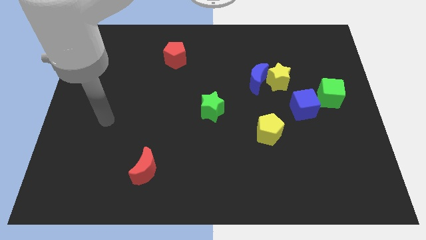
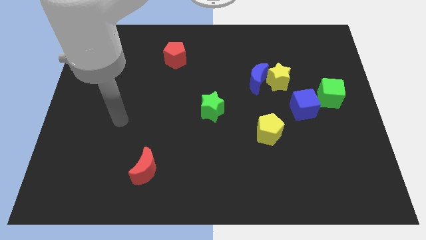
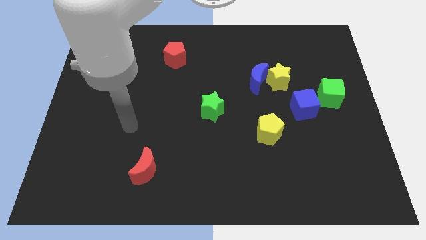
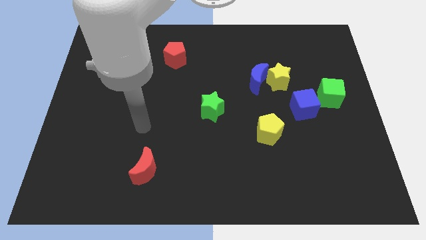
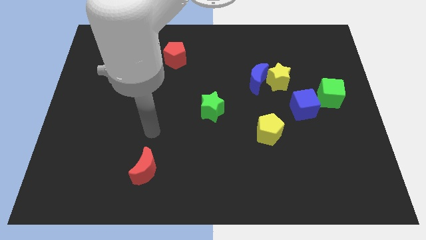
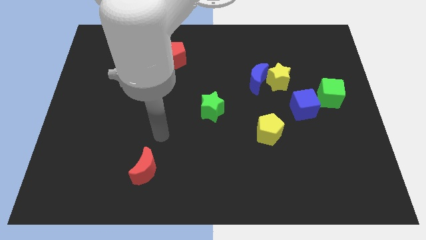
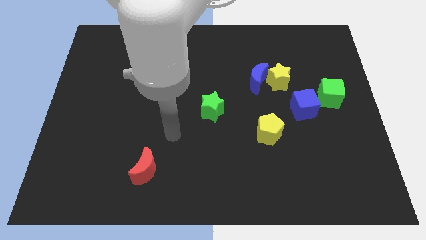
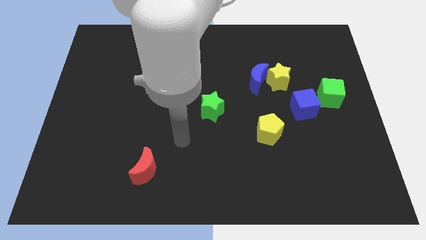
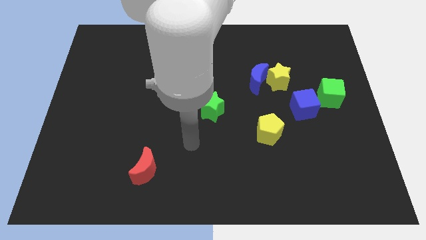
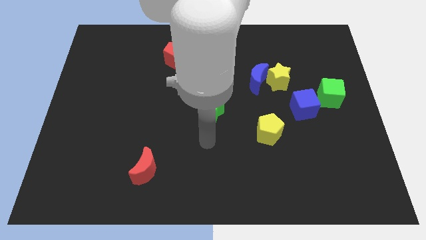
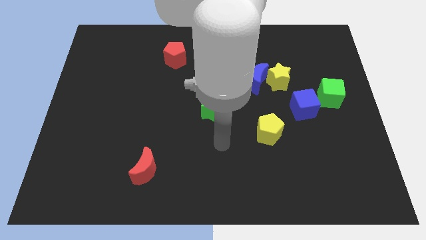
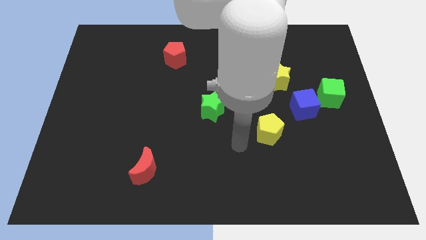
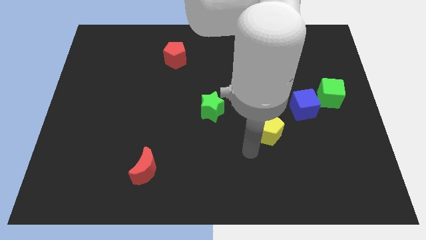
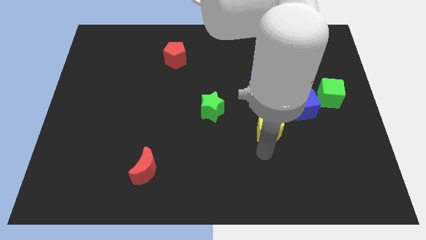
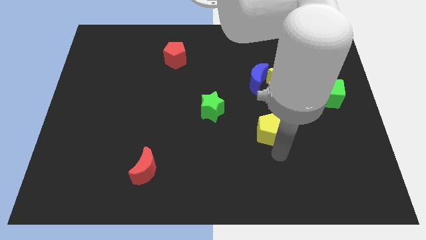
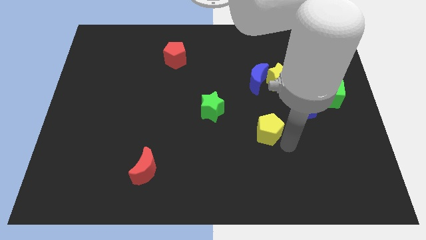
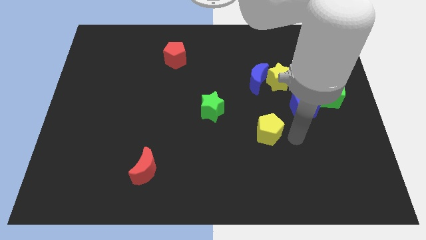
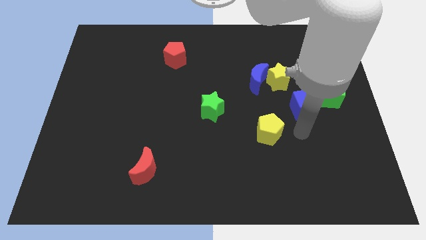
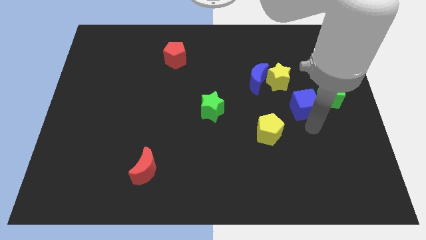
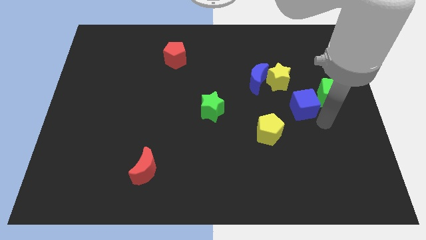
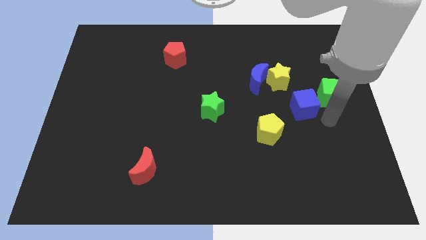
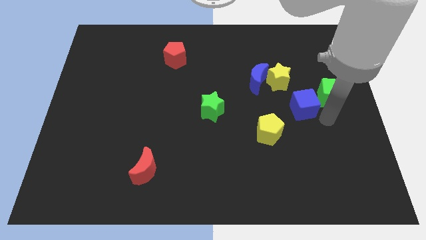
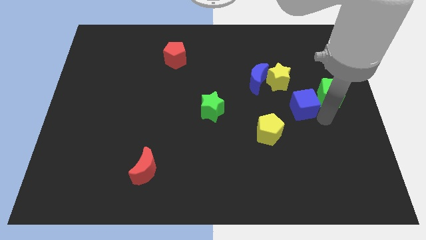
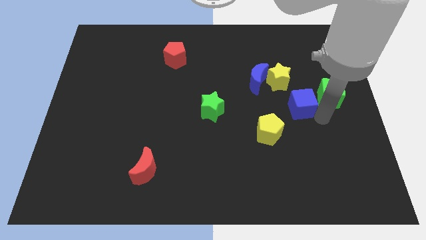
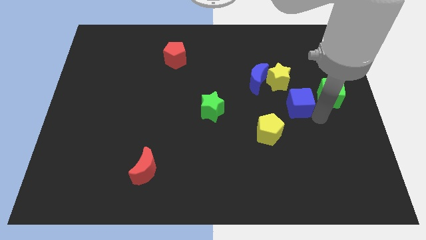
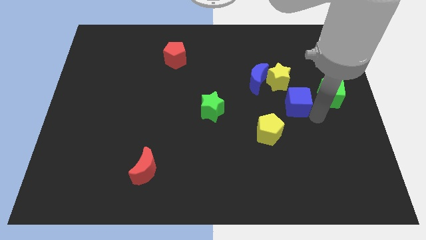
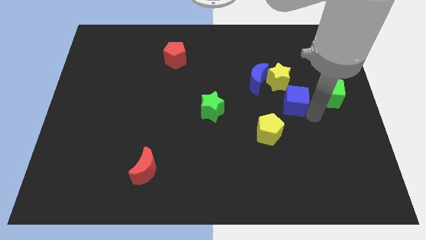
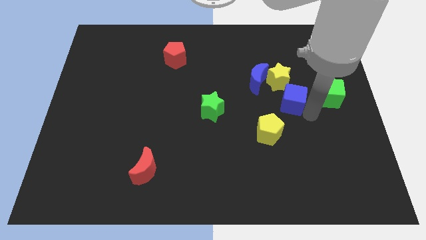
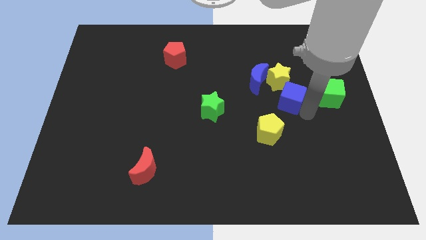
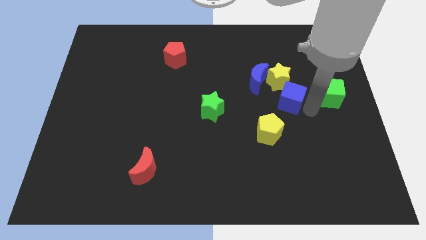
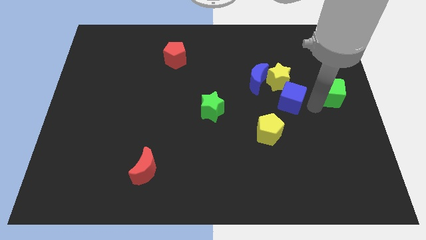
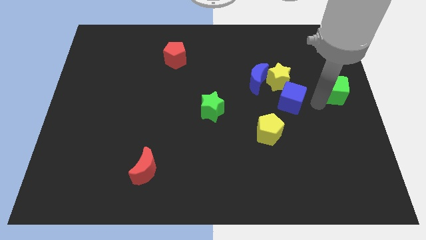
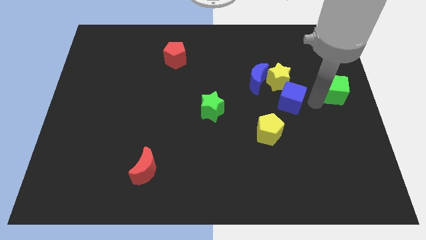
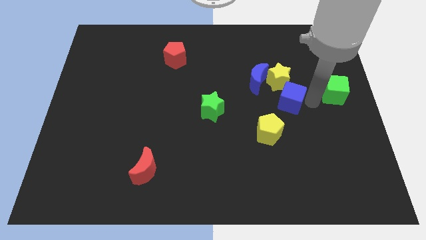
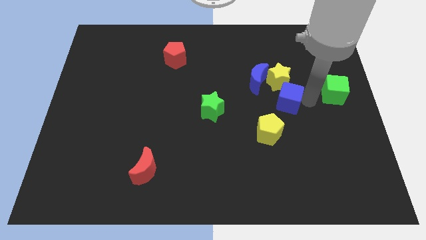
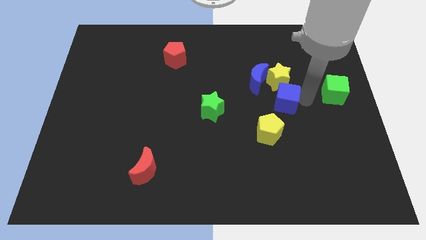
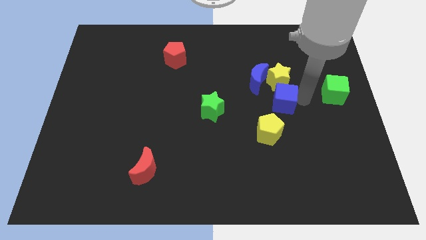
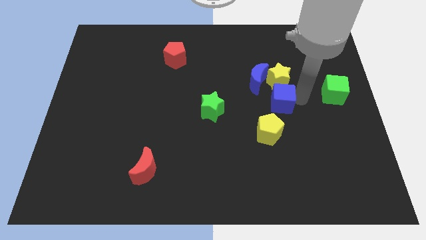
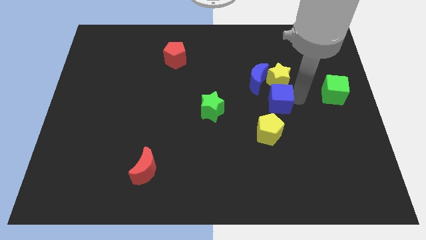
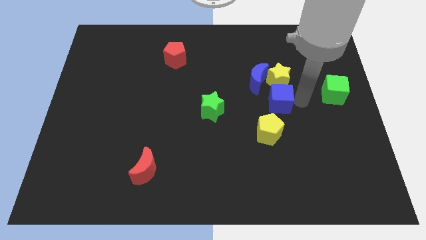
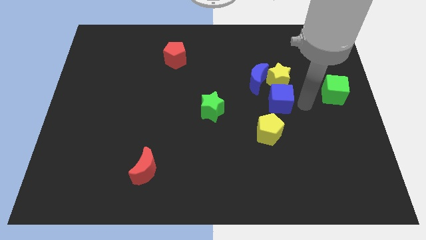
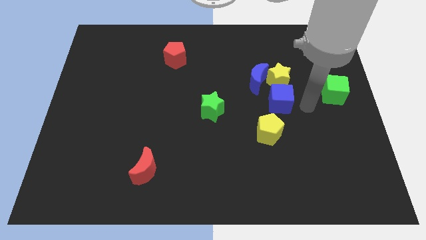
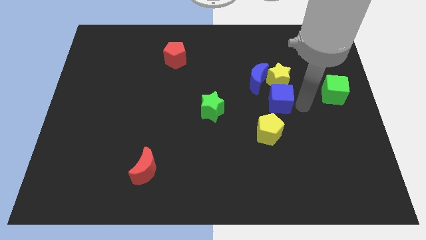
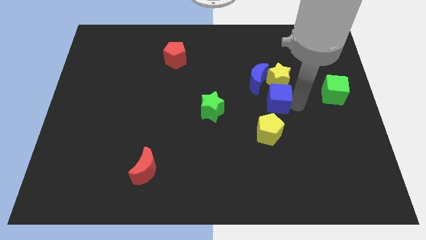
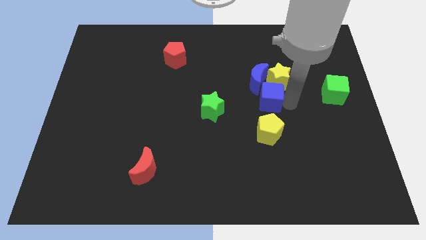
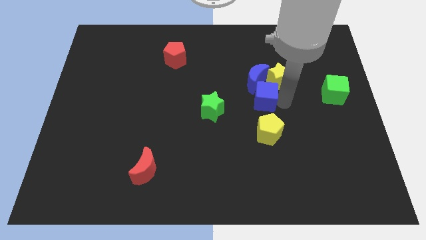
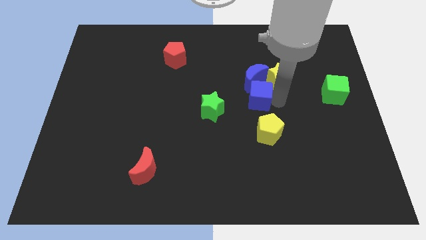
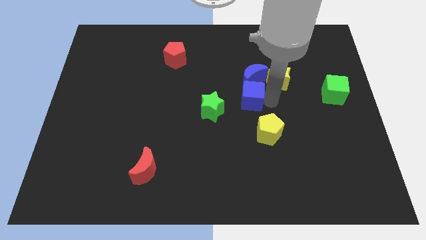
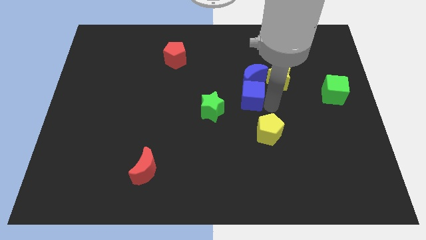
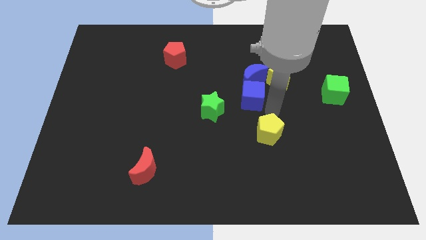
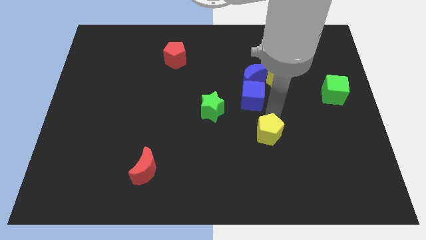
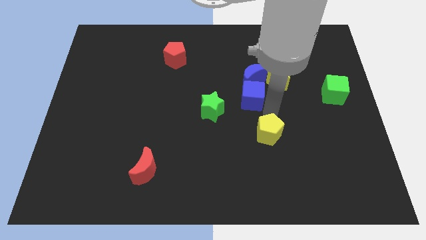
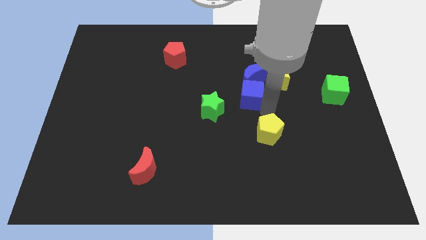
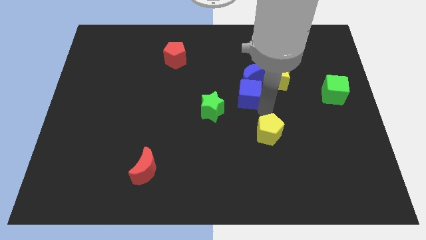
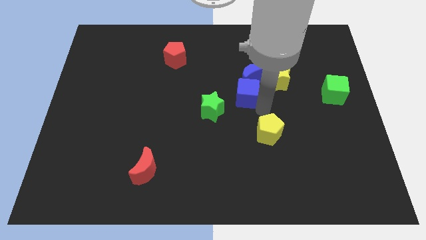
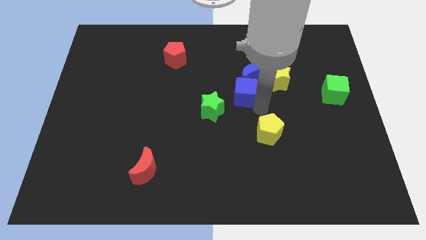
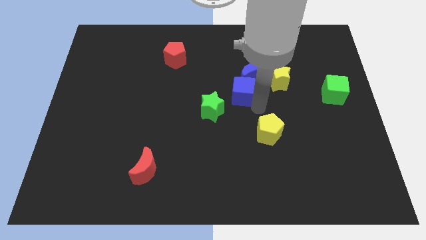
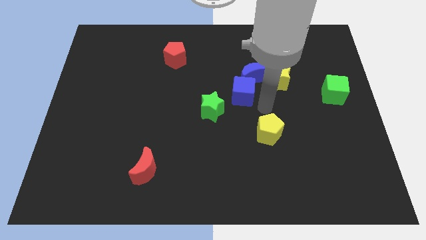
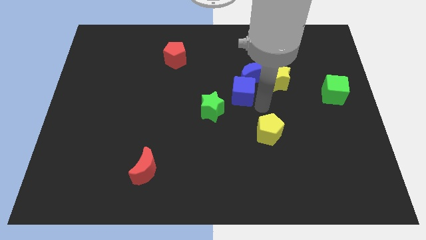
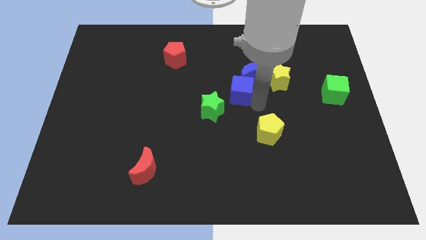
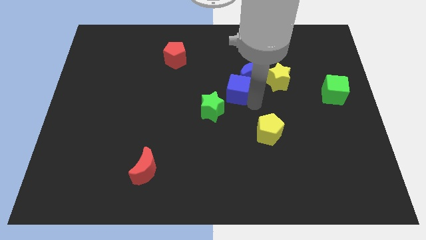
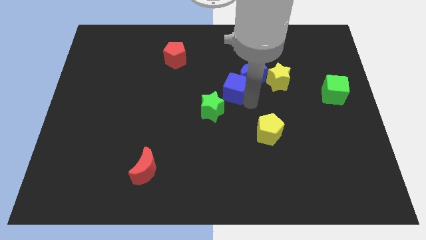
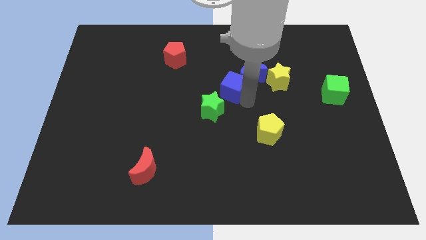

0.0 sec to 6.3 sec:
slide the blue cube to the top of the green star
